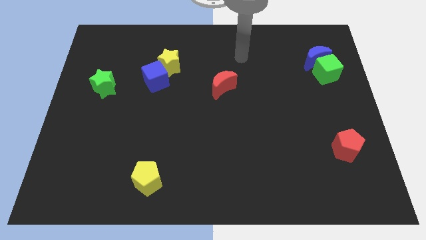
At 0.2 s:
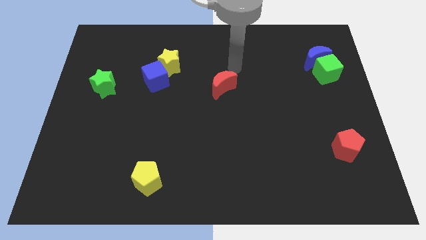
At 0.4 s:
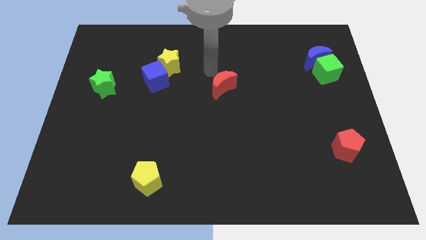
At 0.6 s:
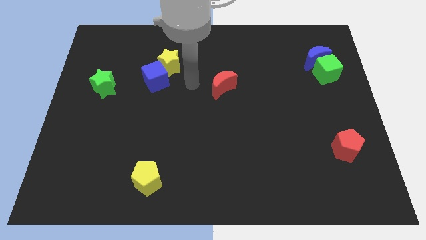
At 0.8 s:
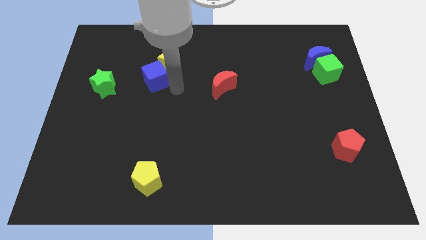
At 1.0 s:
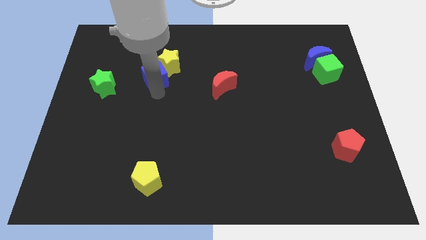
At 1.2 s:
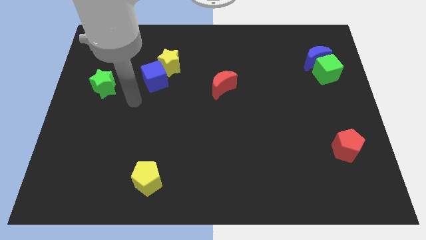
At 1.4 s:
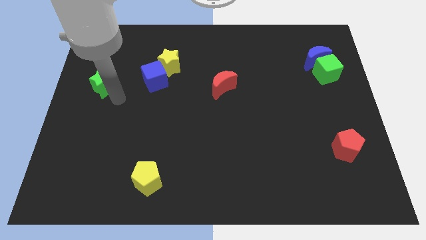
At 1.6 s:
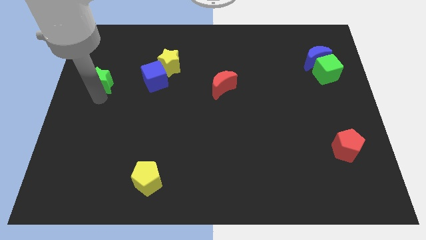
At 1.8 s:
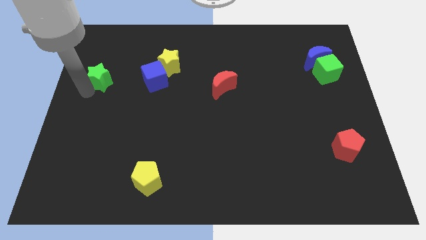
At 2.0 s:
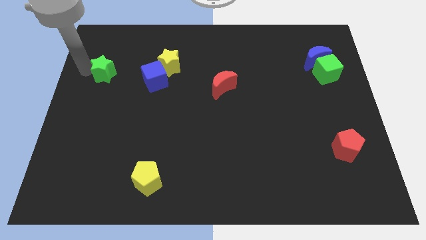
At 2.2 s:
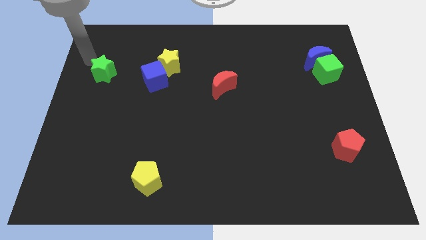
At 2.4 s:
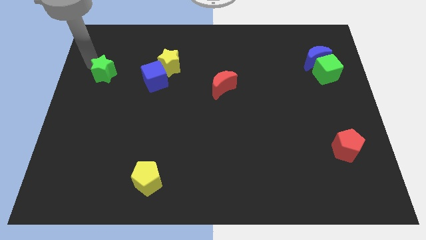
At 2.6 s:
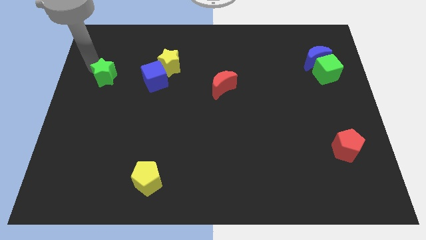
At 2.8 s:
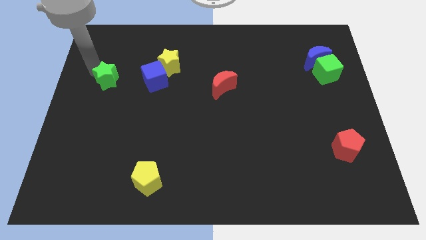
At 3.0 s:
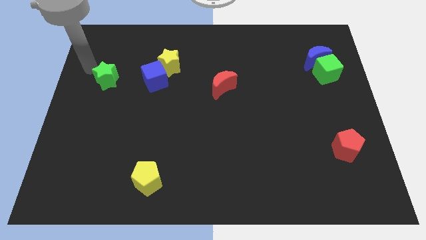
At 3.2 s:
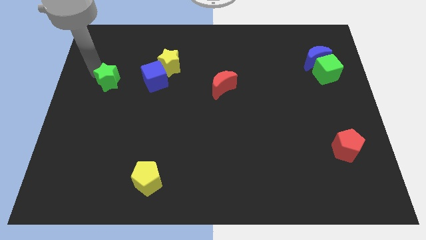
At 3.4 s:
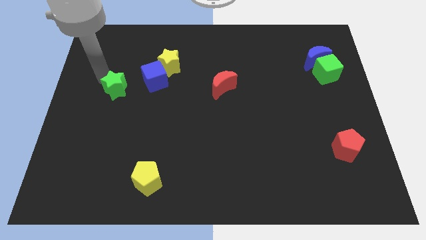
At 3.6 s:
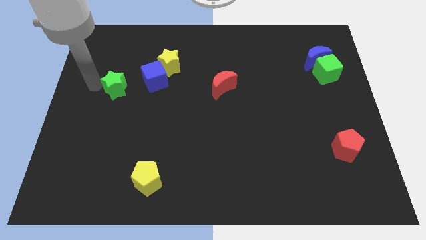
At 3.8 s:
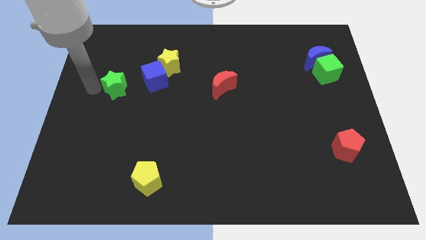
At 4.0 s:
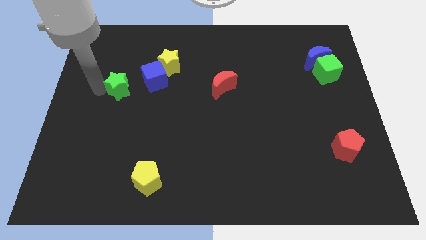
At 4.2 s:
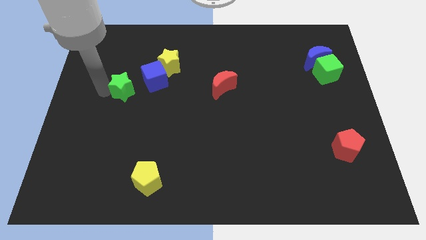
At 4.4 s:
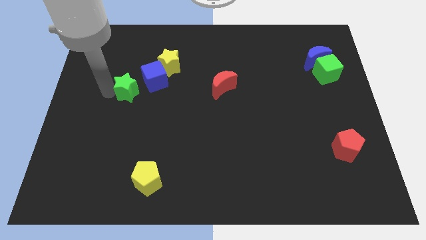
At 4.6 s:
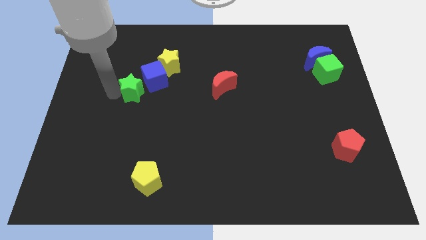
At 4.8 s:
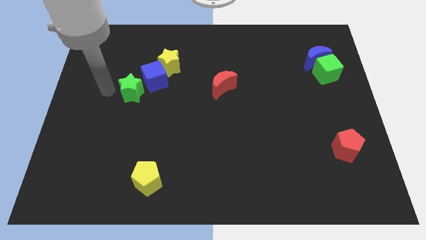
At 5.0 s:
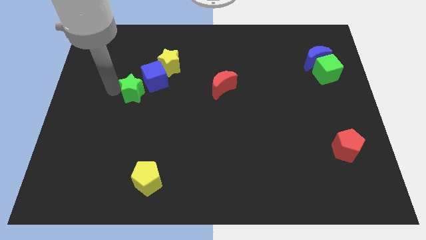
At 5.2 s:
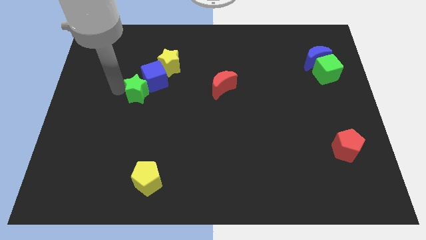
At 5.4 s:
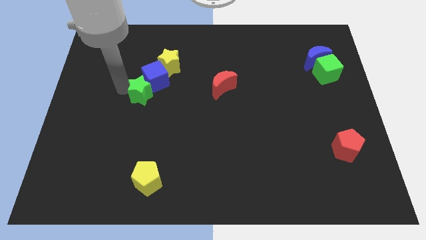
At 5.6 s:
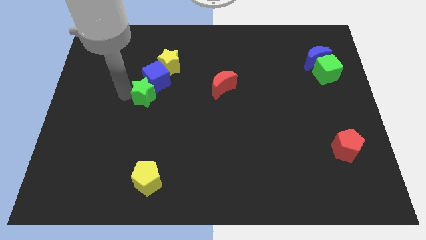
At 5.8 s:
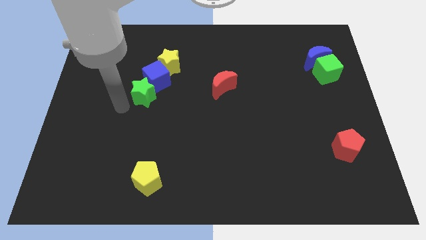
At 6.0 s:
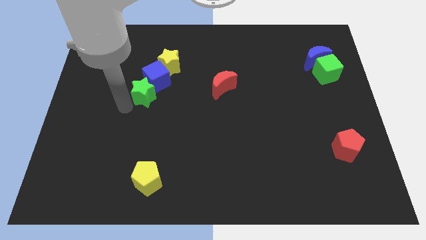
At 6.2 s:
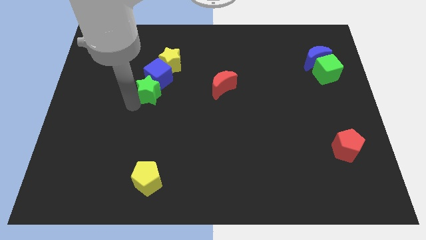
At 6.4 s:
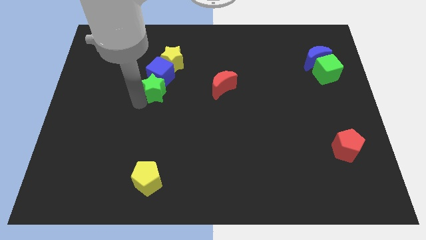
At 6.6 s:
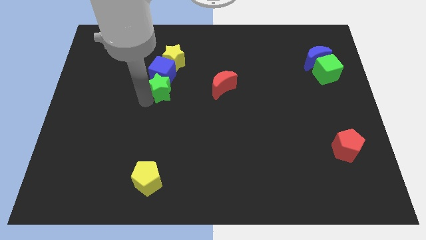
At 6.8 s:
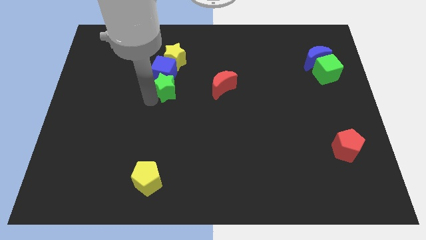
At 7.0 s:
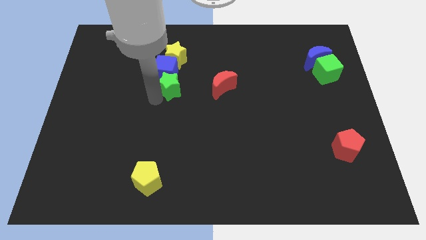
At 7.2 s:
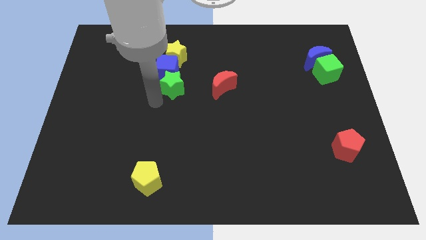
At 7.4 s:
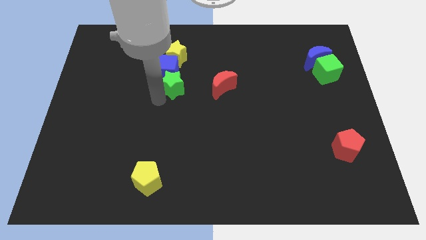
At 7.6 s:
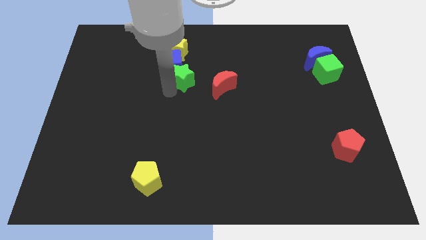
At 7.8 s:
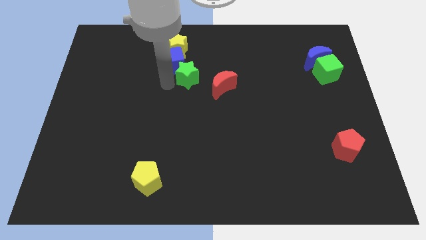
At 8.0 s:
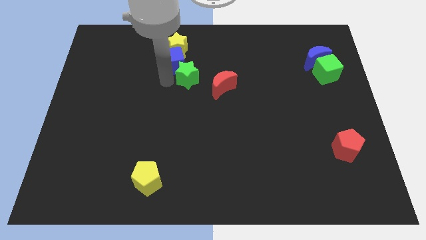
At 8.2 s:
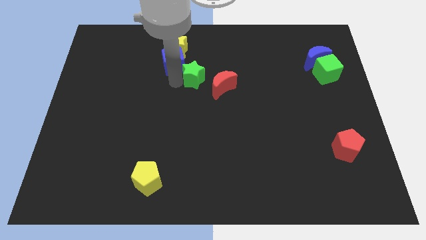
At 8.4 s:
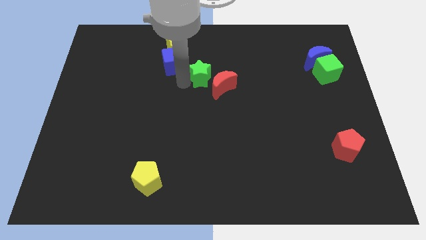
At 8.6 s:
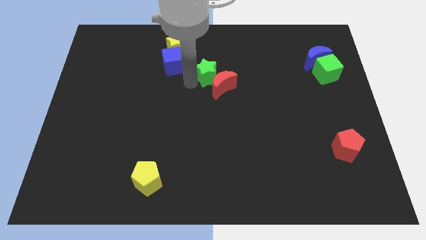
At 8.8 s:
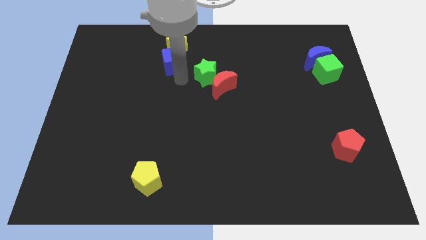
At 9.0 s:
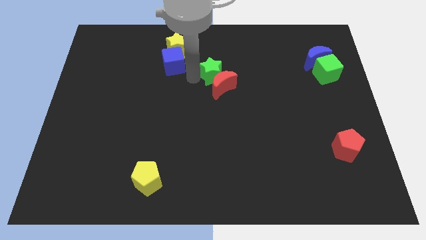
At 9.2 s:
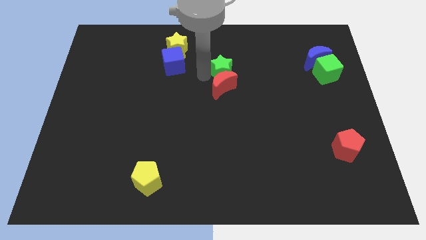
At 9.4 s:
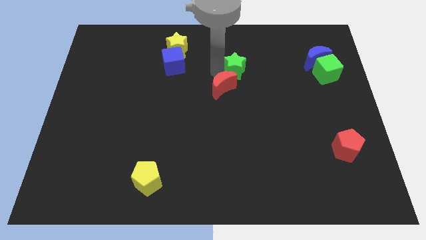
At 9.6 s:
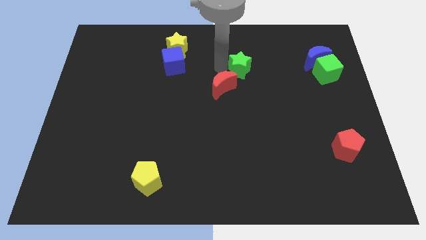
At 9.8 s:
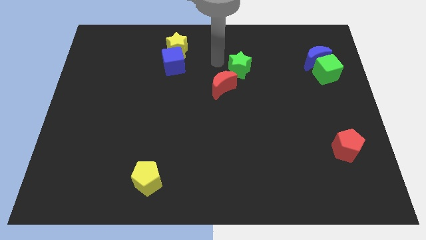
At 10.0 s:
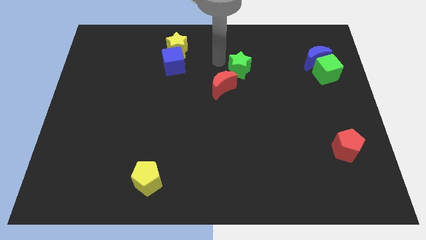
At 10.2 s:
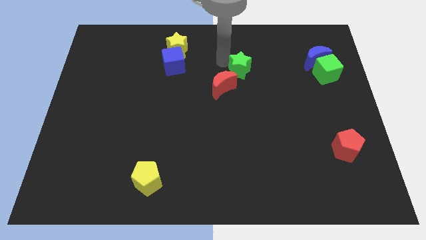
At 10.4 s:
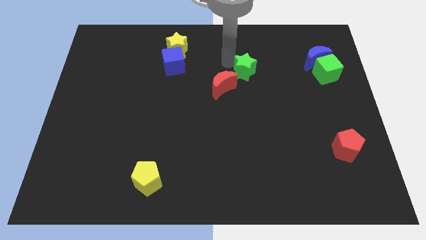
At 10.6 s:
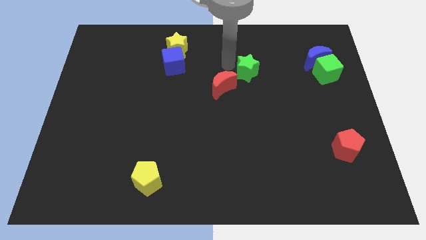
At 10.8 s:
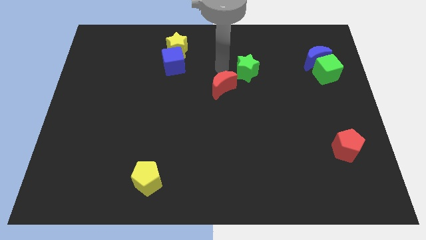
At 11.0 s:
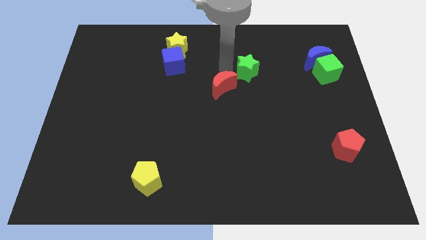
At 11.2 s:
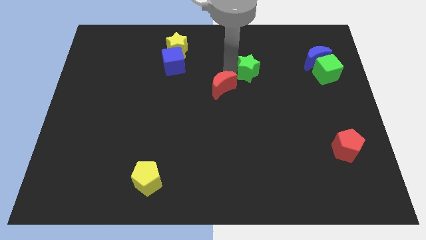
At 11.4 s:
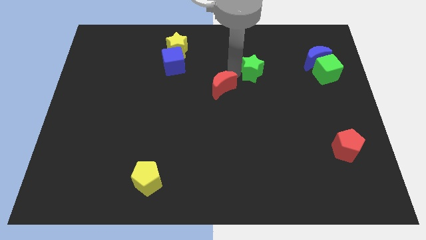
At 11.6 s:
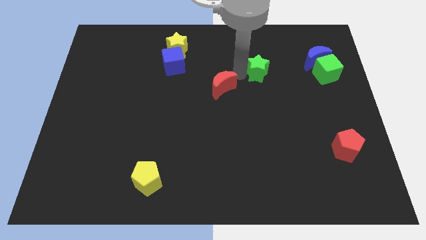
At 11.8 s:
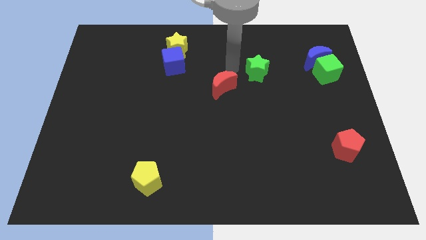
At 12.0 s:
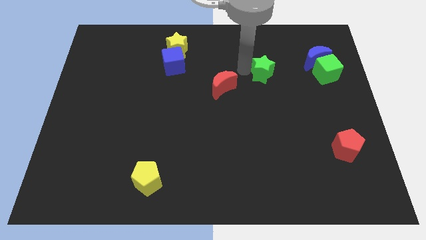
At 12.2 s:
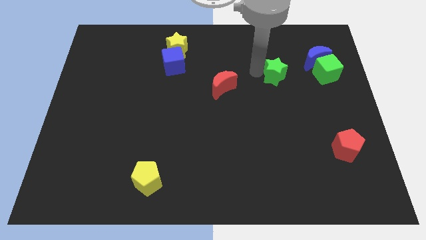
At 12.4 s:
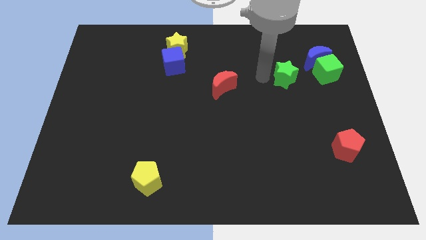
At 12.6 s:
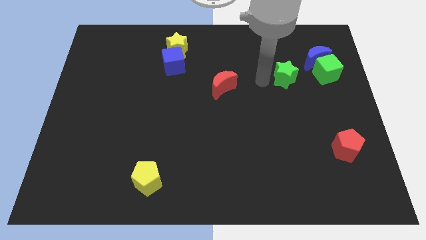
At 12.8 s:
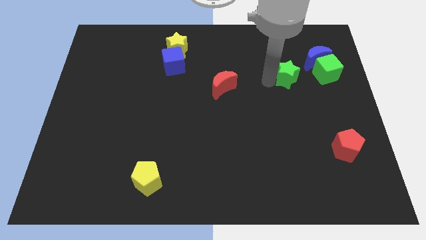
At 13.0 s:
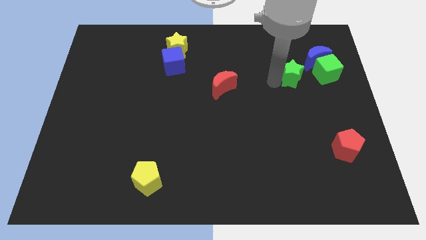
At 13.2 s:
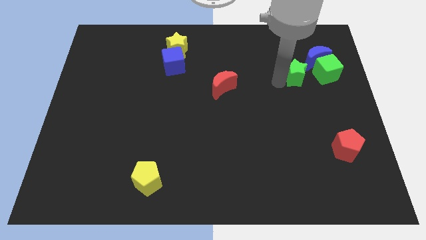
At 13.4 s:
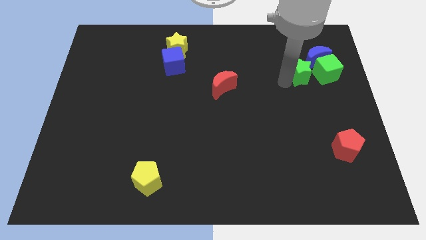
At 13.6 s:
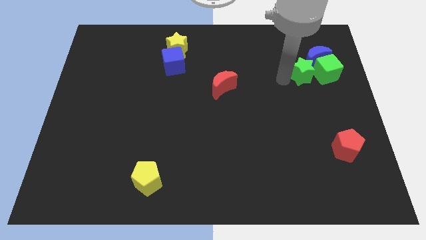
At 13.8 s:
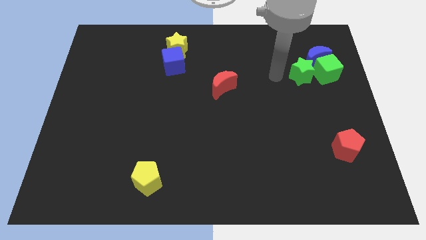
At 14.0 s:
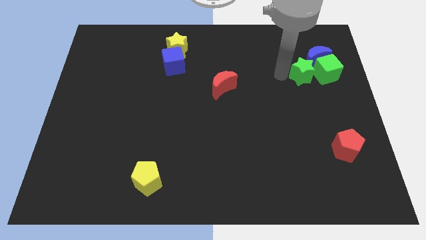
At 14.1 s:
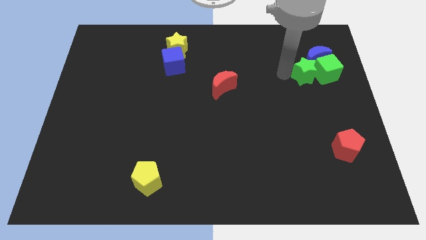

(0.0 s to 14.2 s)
slide the green star close to the green cube

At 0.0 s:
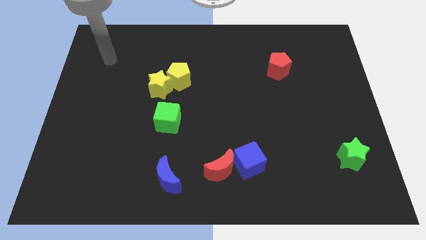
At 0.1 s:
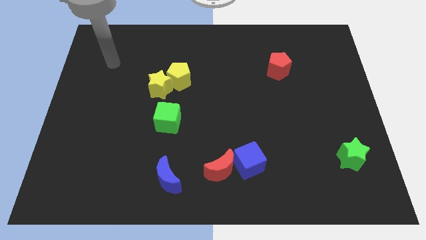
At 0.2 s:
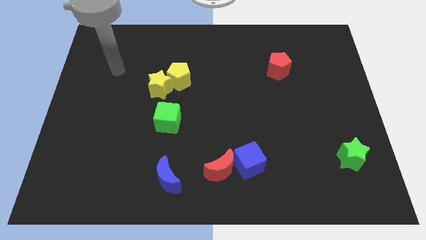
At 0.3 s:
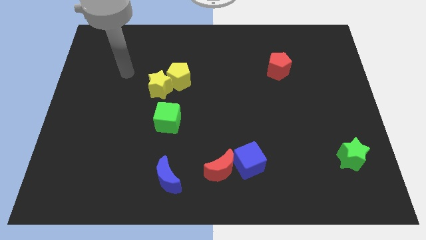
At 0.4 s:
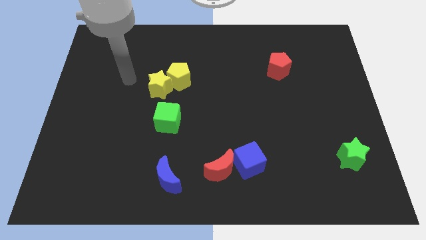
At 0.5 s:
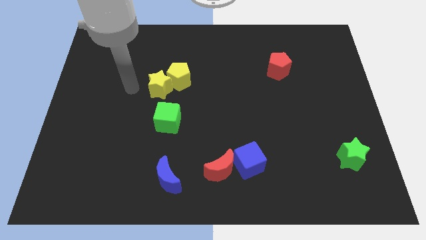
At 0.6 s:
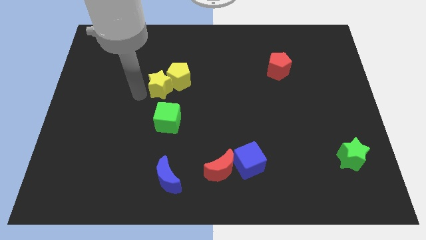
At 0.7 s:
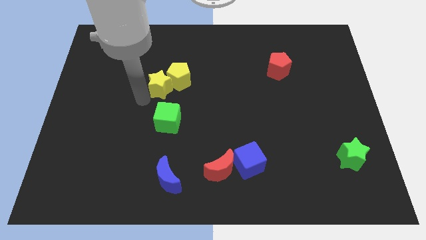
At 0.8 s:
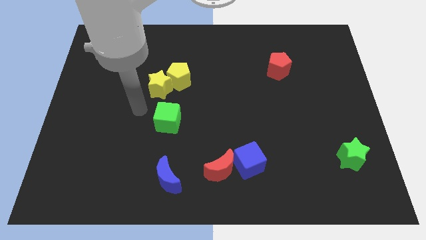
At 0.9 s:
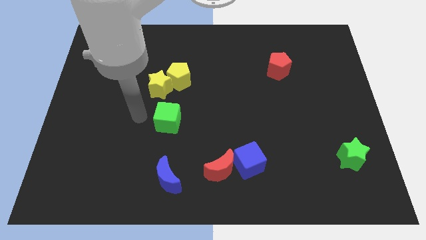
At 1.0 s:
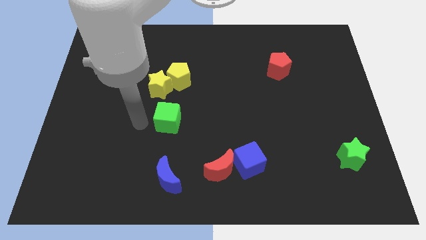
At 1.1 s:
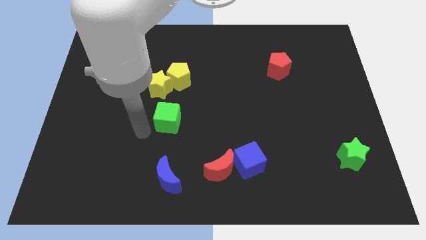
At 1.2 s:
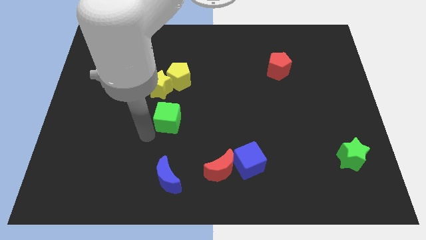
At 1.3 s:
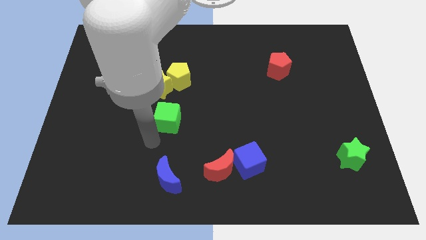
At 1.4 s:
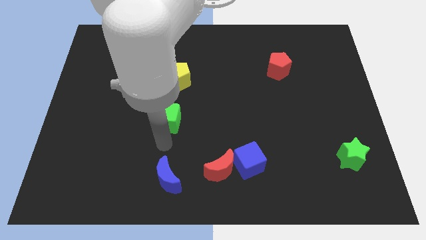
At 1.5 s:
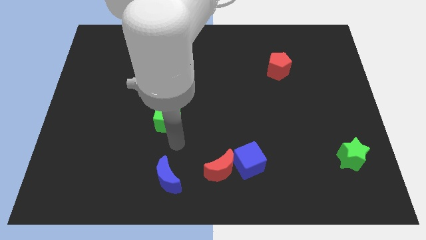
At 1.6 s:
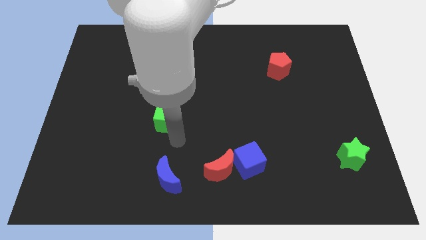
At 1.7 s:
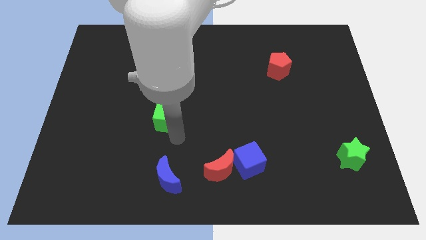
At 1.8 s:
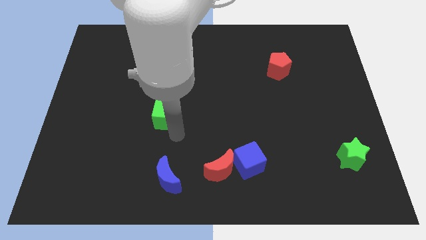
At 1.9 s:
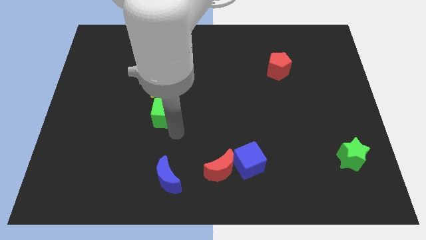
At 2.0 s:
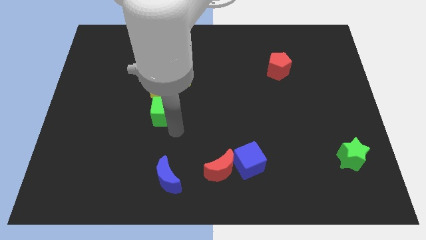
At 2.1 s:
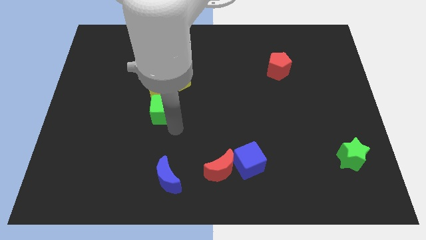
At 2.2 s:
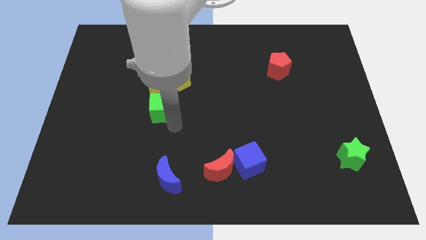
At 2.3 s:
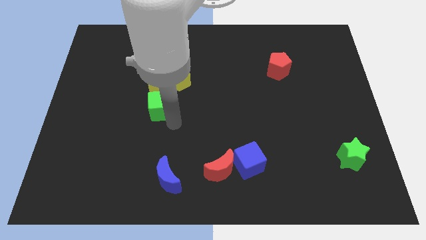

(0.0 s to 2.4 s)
slide the green cube towards the yellow star
